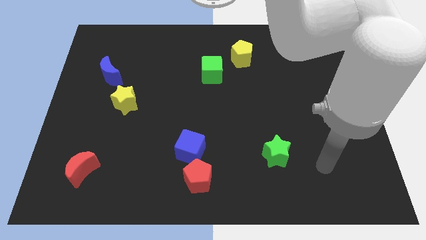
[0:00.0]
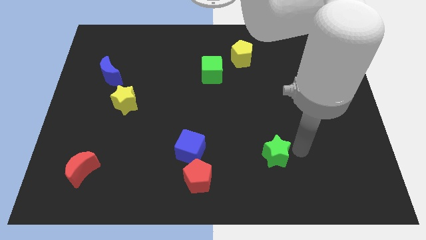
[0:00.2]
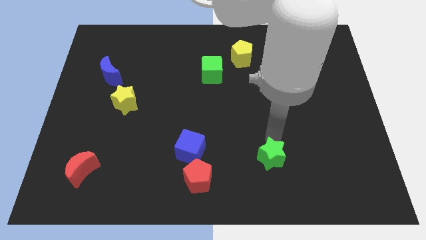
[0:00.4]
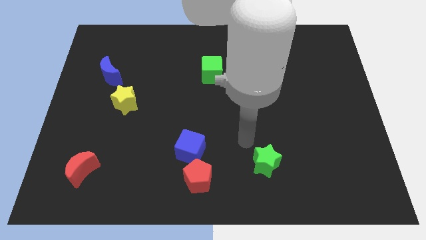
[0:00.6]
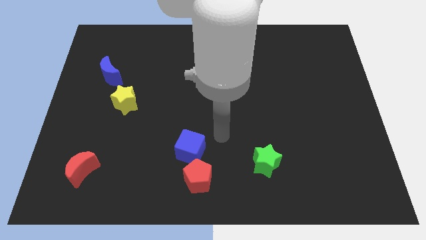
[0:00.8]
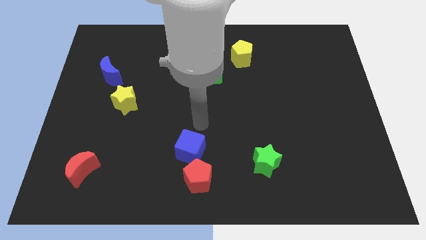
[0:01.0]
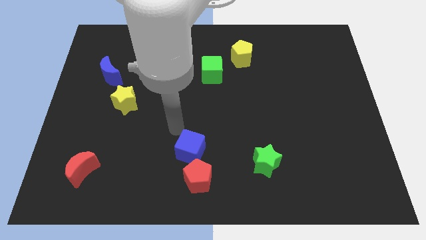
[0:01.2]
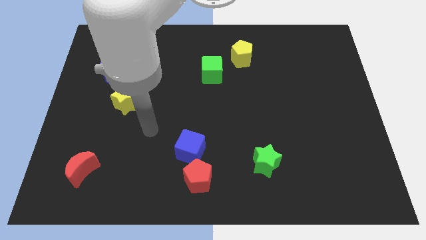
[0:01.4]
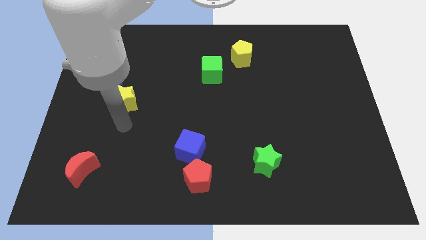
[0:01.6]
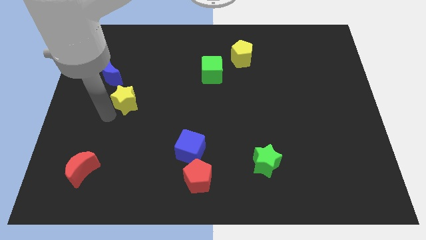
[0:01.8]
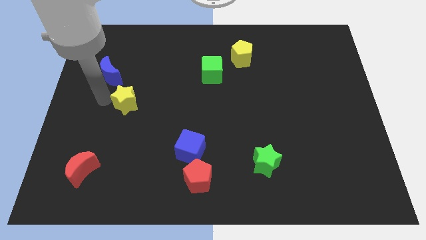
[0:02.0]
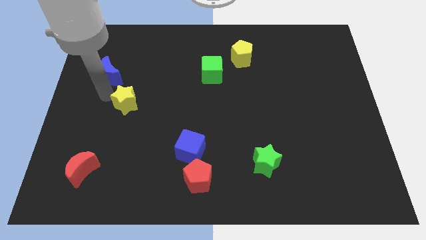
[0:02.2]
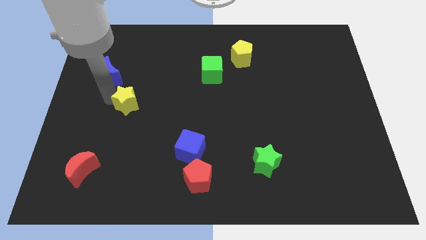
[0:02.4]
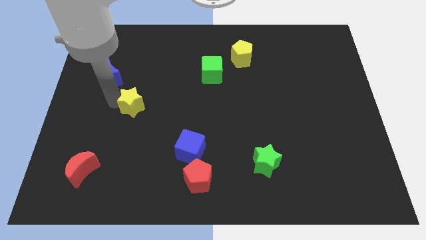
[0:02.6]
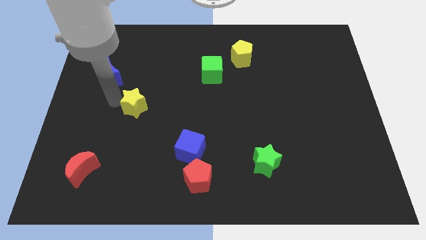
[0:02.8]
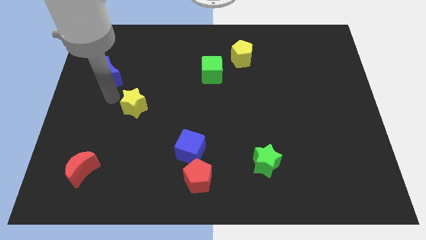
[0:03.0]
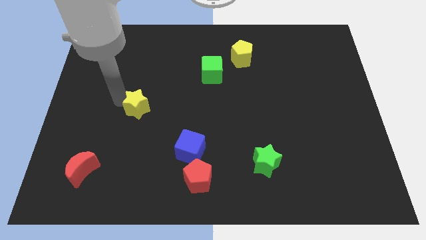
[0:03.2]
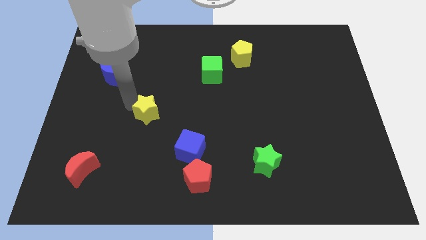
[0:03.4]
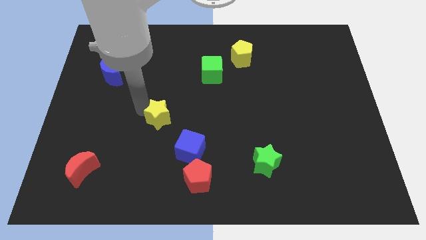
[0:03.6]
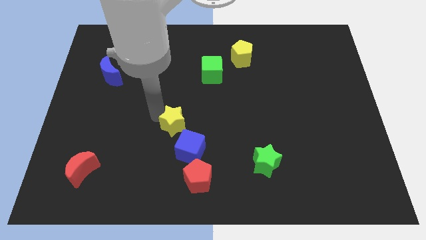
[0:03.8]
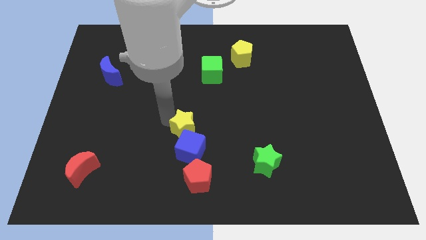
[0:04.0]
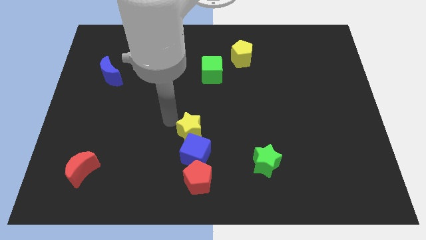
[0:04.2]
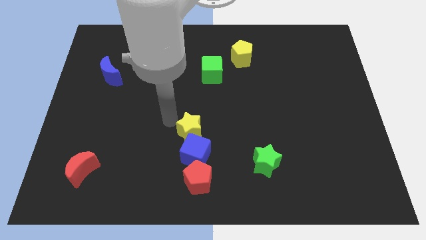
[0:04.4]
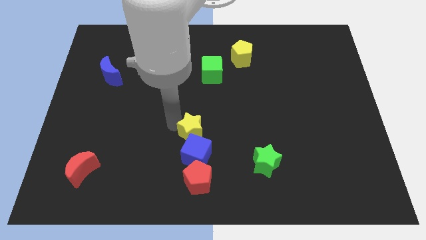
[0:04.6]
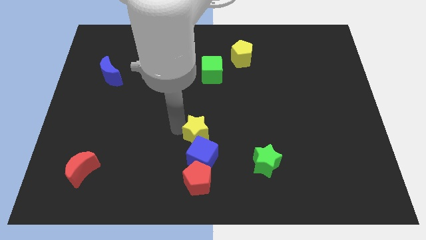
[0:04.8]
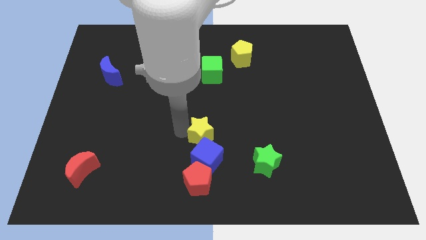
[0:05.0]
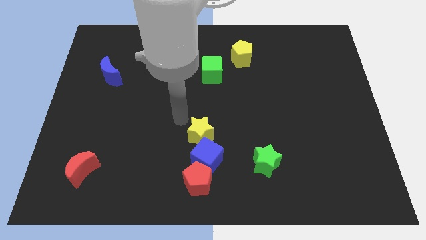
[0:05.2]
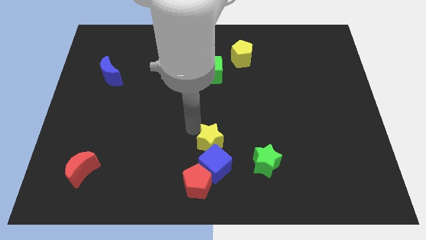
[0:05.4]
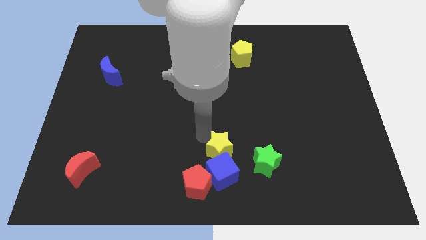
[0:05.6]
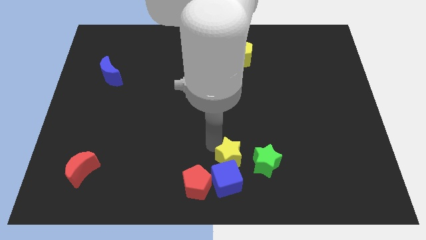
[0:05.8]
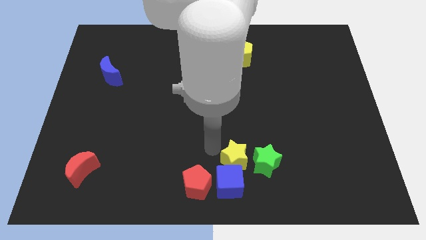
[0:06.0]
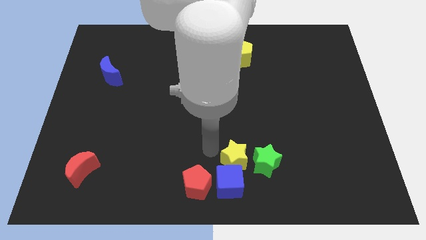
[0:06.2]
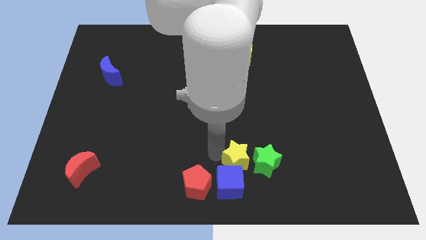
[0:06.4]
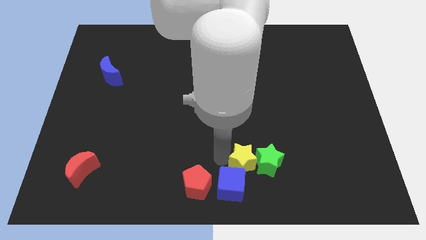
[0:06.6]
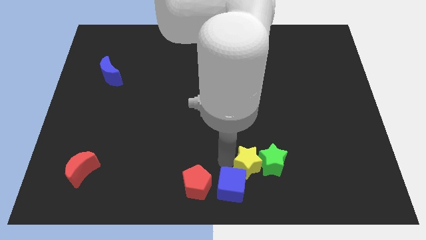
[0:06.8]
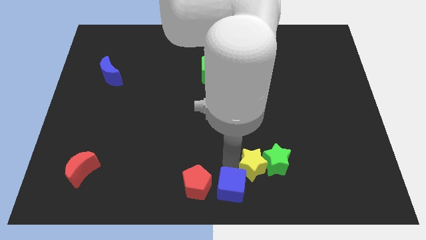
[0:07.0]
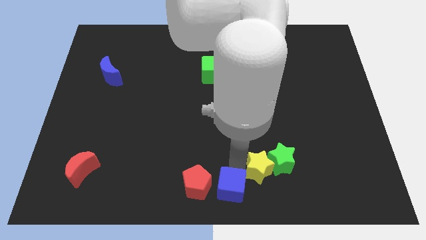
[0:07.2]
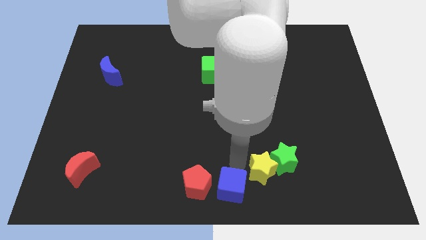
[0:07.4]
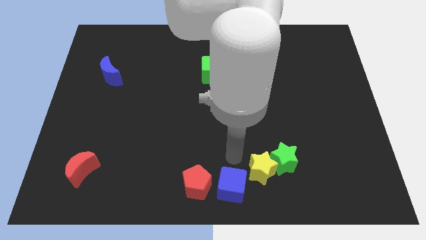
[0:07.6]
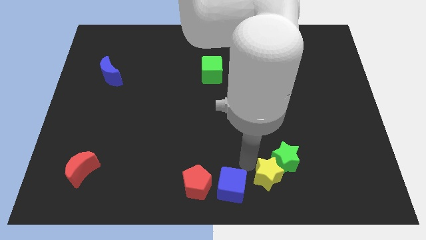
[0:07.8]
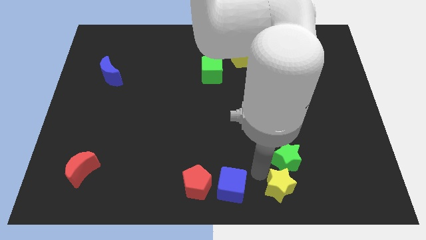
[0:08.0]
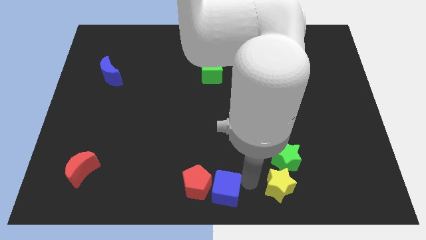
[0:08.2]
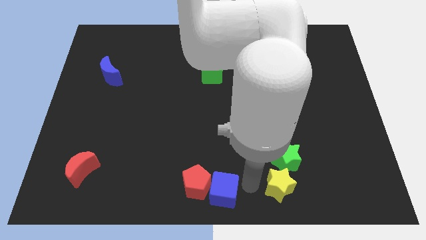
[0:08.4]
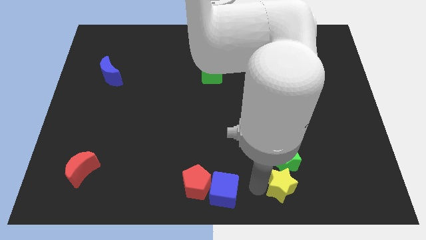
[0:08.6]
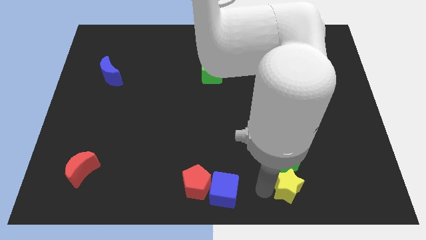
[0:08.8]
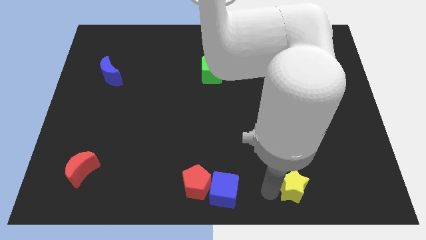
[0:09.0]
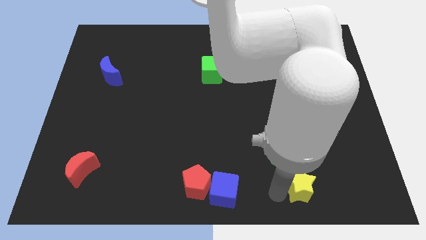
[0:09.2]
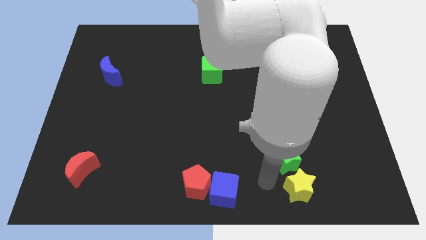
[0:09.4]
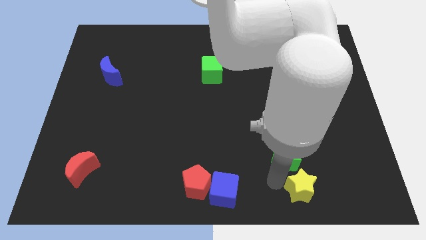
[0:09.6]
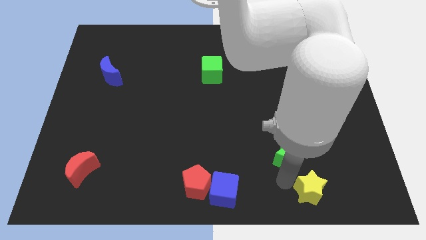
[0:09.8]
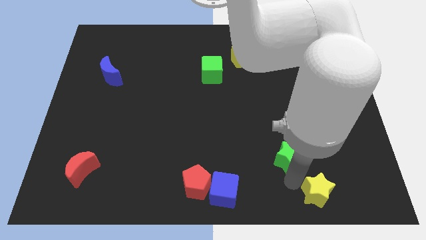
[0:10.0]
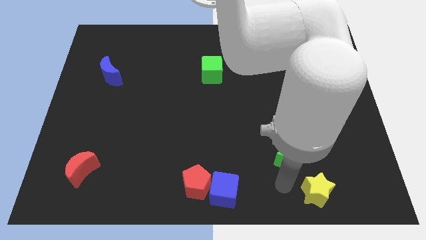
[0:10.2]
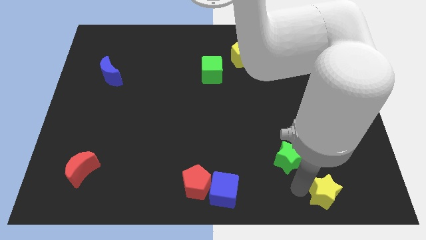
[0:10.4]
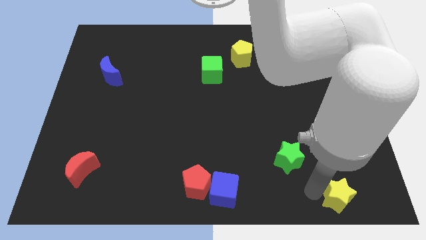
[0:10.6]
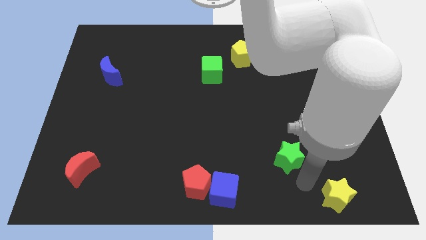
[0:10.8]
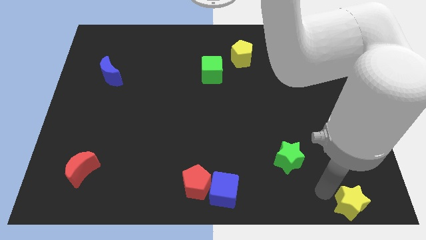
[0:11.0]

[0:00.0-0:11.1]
move the yellow star to the lower right corner

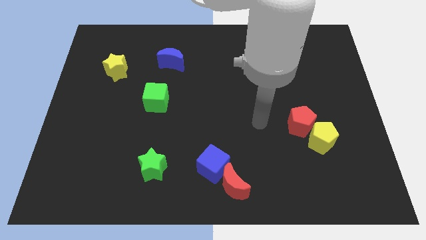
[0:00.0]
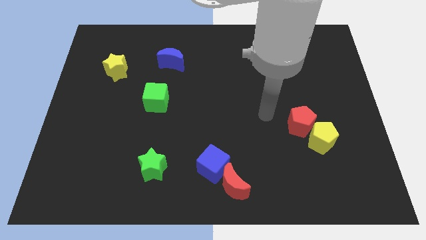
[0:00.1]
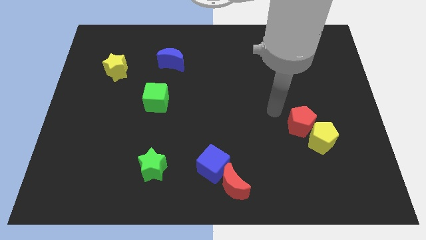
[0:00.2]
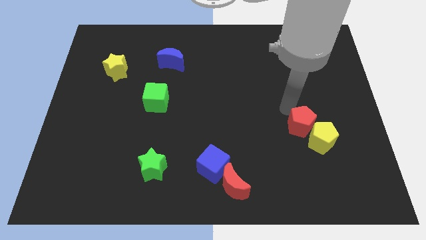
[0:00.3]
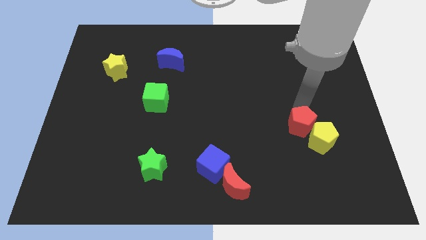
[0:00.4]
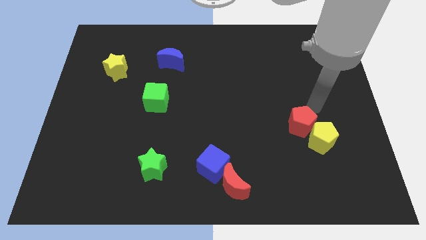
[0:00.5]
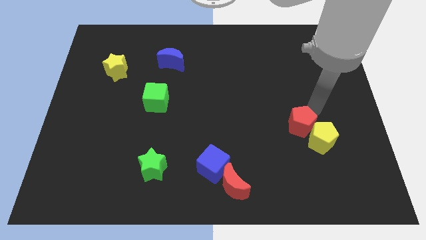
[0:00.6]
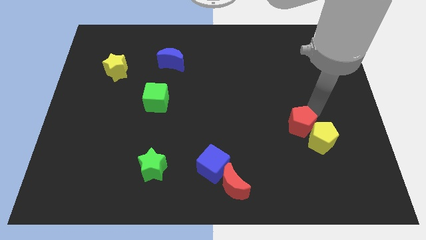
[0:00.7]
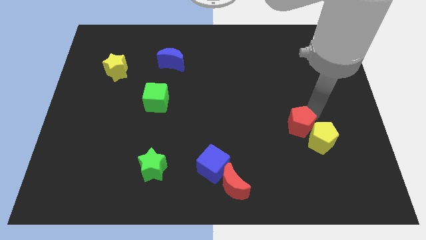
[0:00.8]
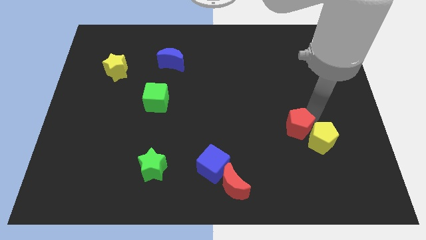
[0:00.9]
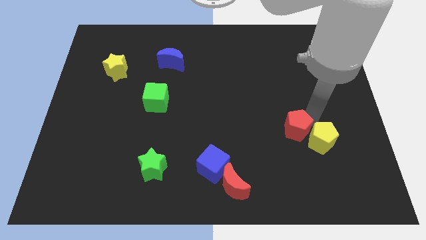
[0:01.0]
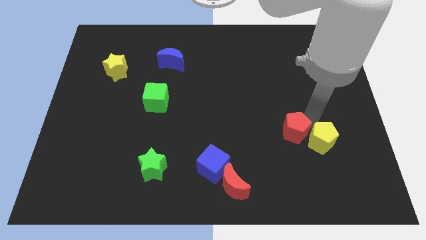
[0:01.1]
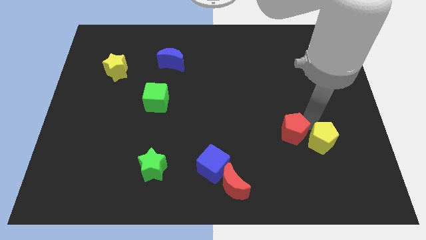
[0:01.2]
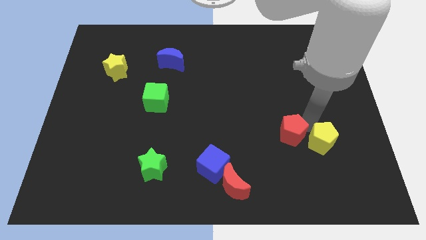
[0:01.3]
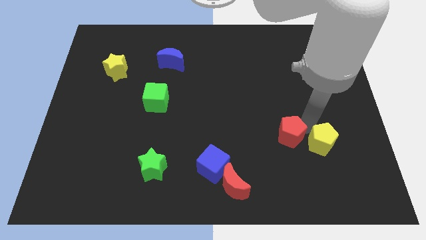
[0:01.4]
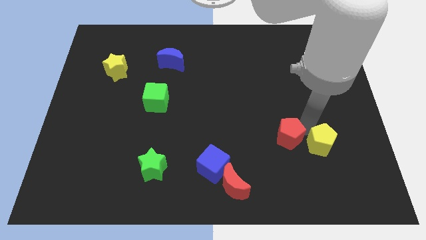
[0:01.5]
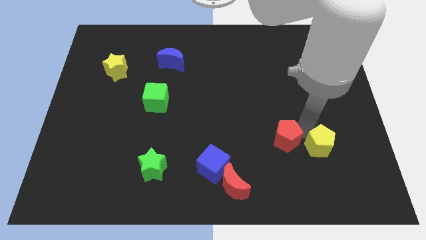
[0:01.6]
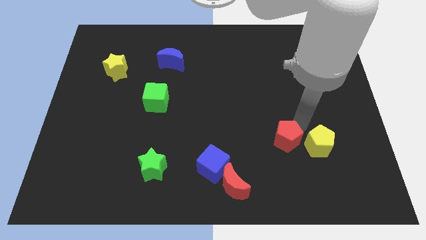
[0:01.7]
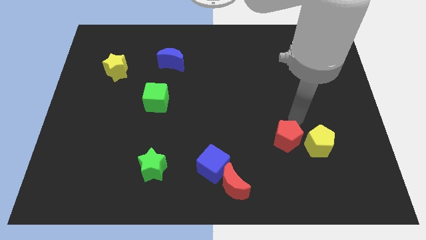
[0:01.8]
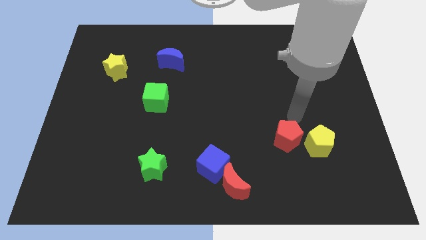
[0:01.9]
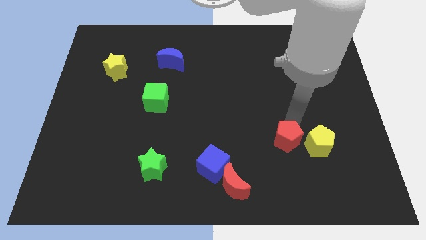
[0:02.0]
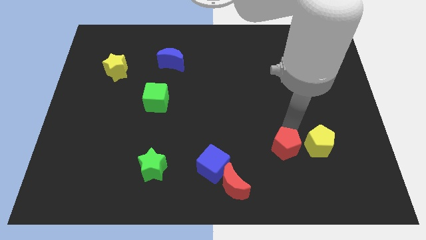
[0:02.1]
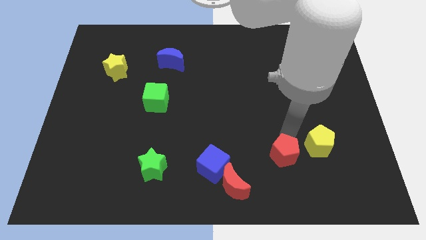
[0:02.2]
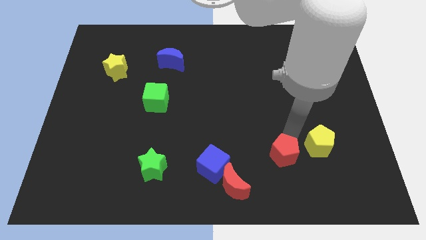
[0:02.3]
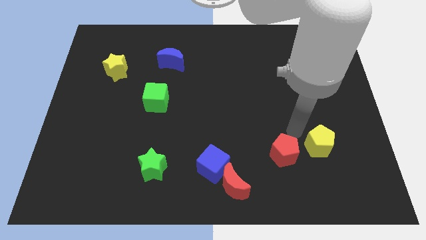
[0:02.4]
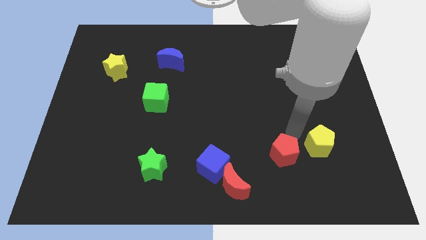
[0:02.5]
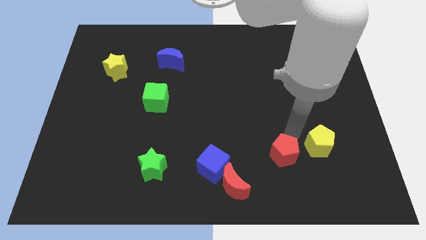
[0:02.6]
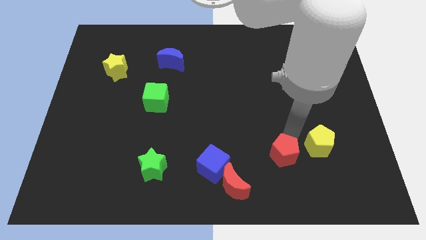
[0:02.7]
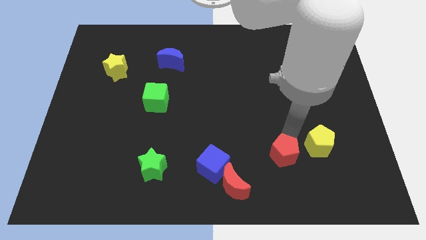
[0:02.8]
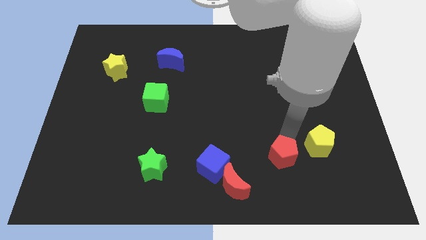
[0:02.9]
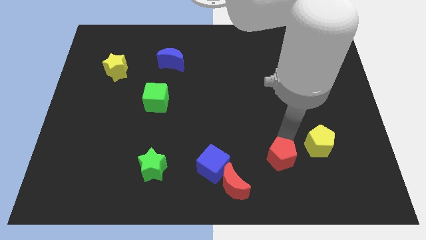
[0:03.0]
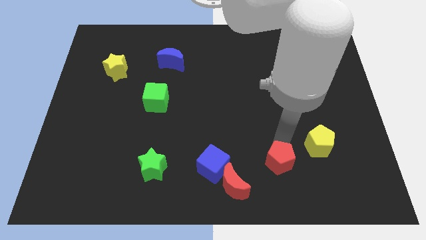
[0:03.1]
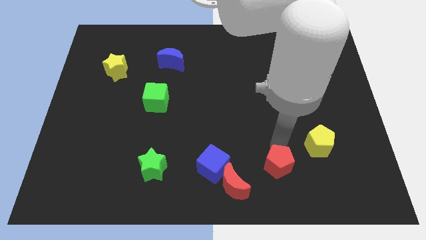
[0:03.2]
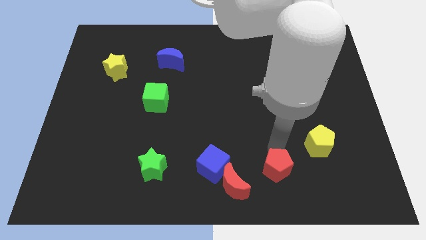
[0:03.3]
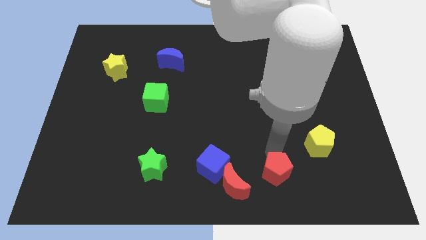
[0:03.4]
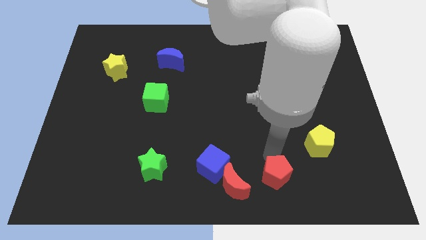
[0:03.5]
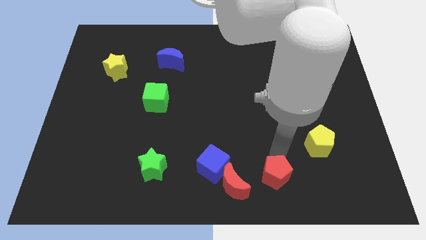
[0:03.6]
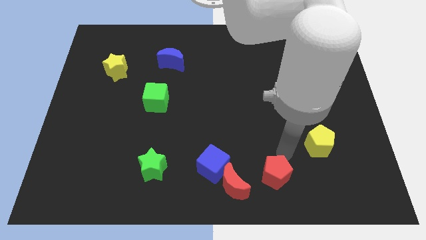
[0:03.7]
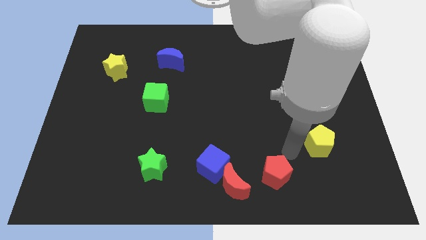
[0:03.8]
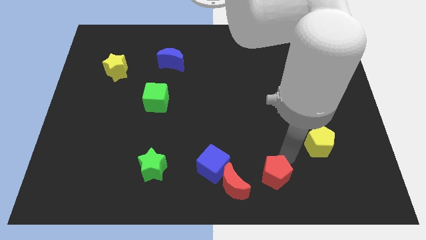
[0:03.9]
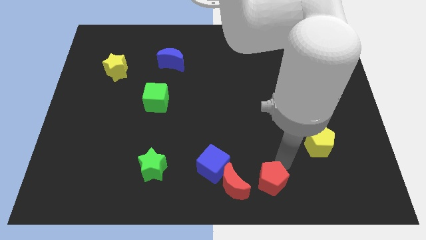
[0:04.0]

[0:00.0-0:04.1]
move the red pentagon to the bottom
